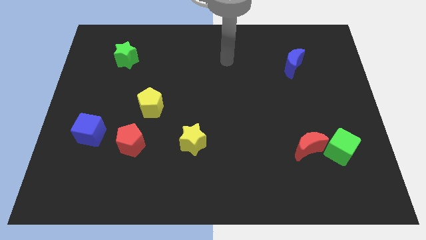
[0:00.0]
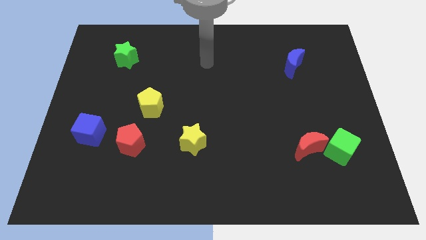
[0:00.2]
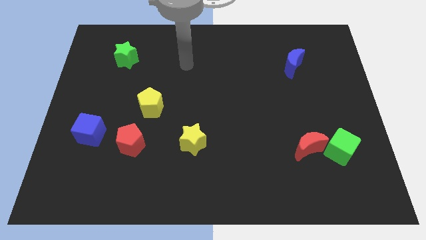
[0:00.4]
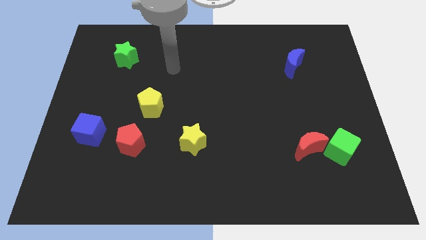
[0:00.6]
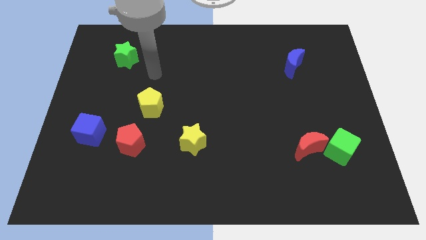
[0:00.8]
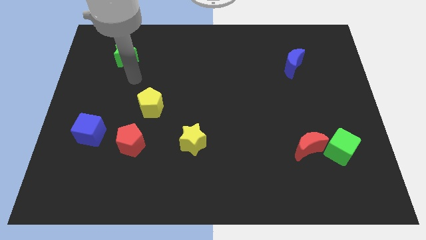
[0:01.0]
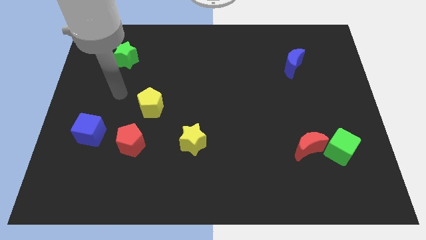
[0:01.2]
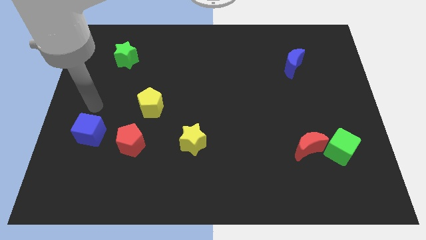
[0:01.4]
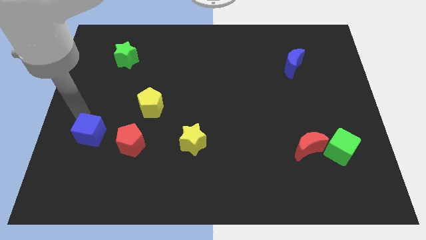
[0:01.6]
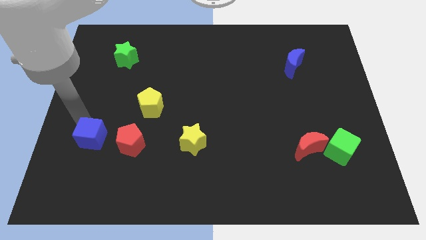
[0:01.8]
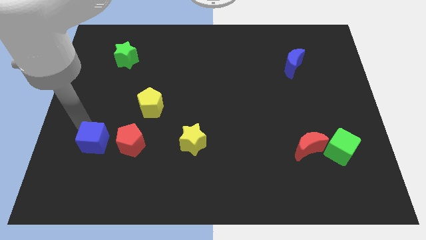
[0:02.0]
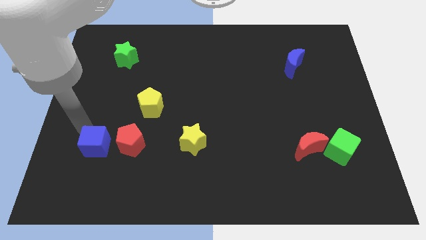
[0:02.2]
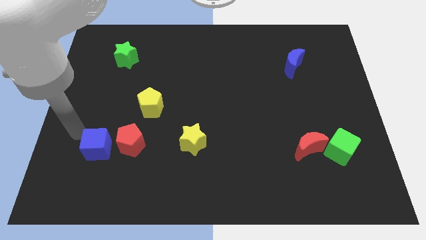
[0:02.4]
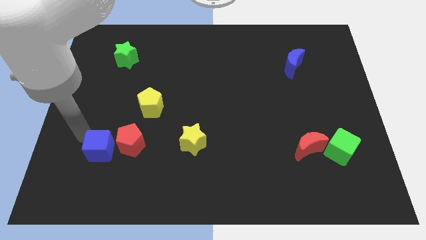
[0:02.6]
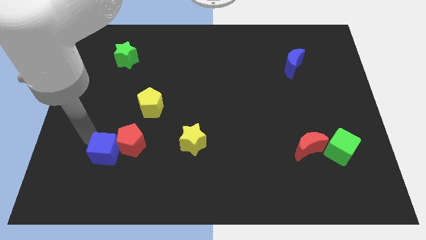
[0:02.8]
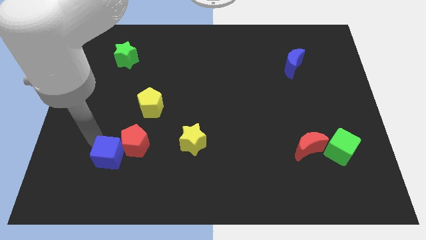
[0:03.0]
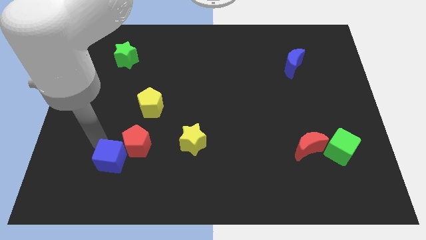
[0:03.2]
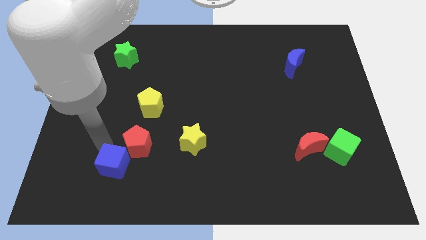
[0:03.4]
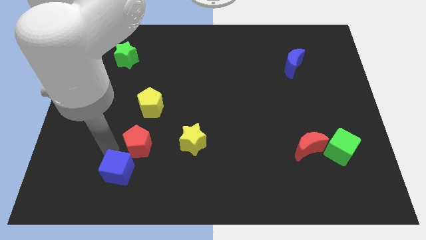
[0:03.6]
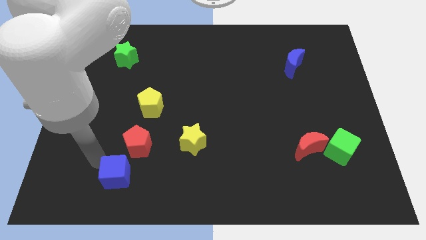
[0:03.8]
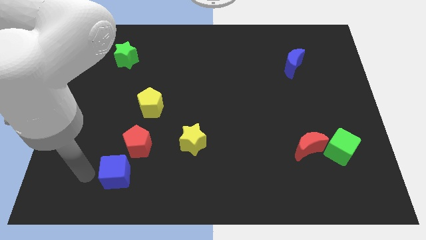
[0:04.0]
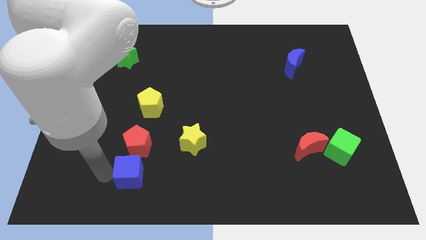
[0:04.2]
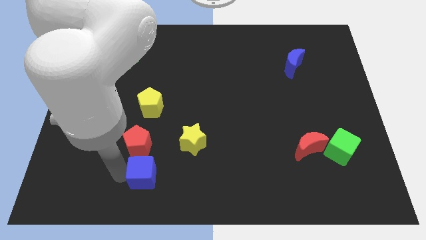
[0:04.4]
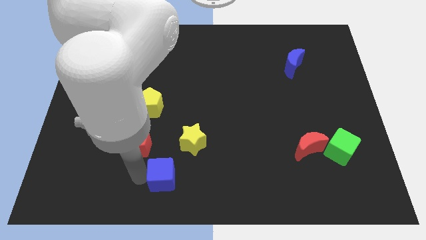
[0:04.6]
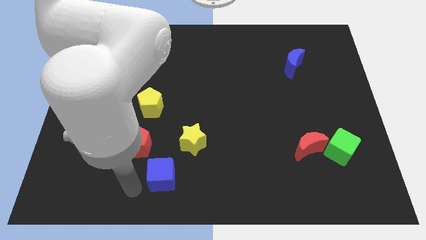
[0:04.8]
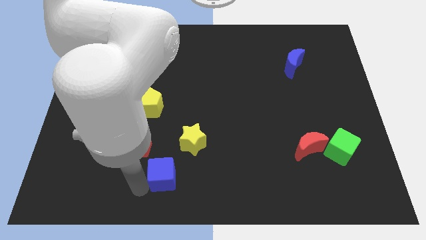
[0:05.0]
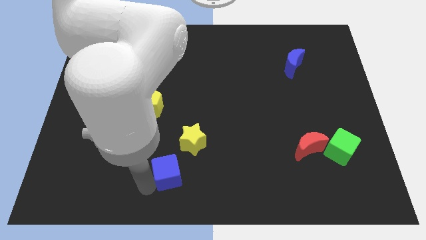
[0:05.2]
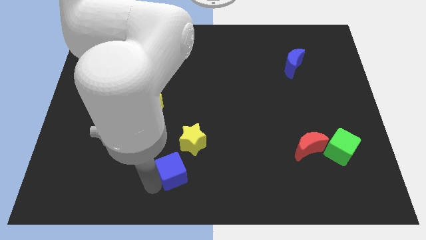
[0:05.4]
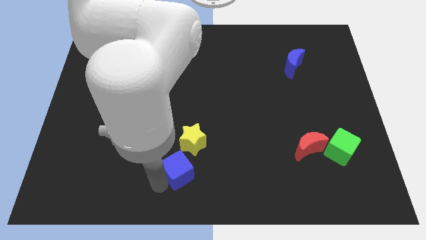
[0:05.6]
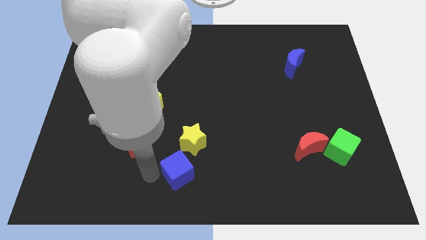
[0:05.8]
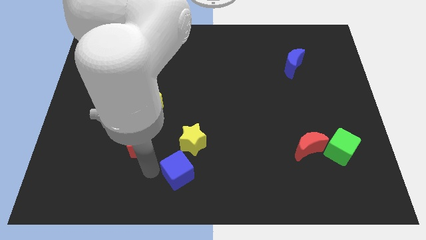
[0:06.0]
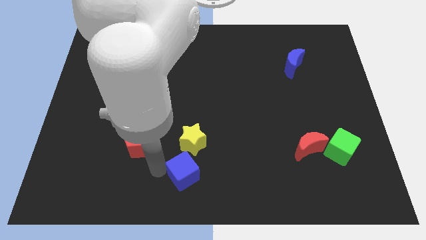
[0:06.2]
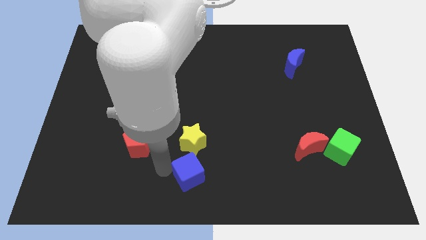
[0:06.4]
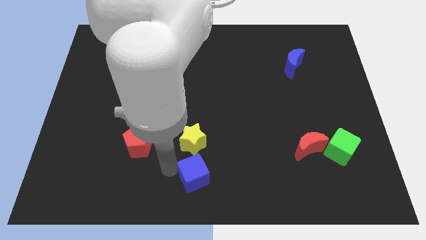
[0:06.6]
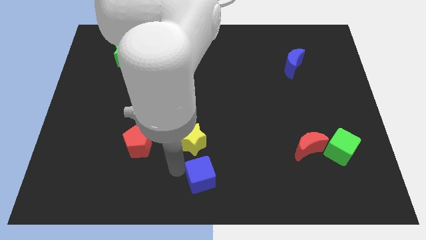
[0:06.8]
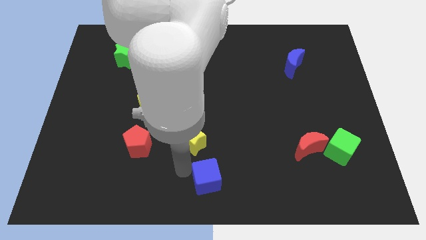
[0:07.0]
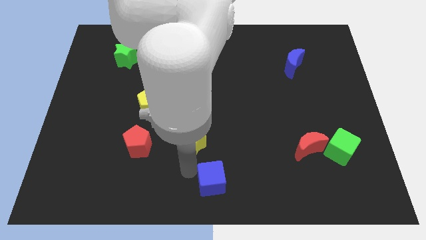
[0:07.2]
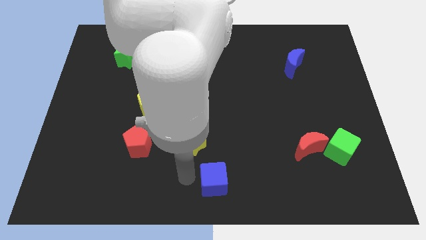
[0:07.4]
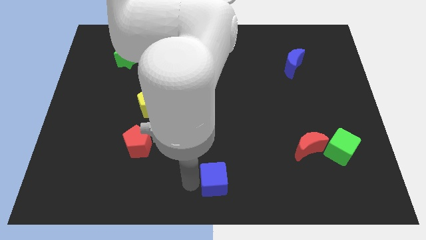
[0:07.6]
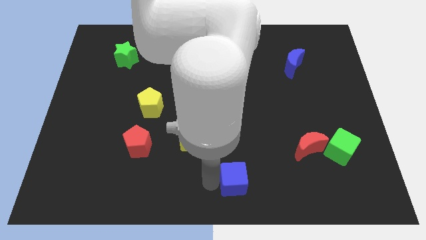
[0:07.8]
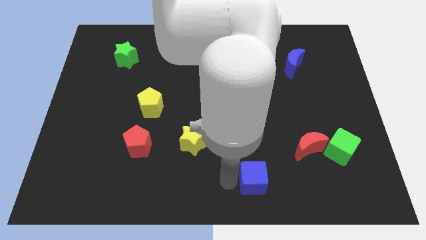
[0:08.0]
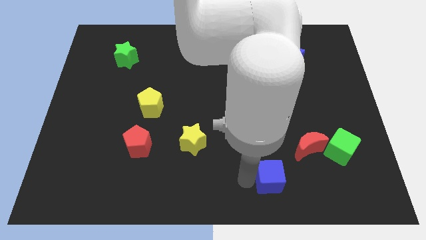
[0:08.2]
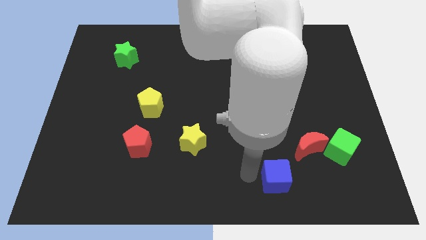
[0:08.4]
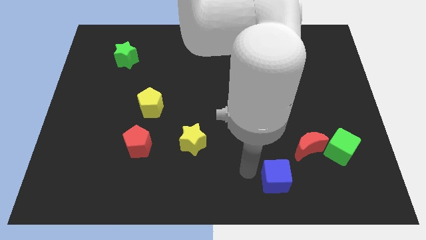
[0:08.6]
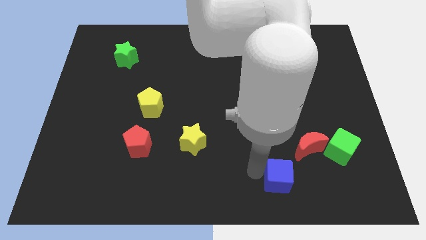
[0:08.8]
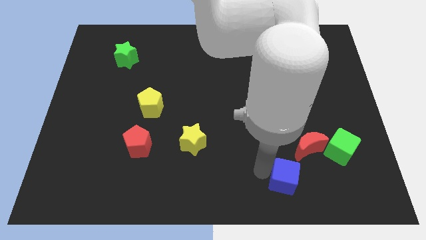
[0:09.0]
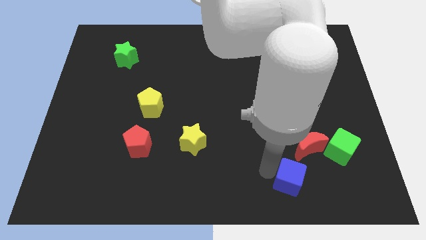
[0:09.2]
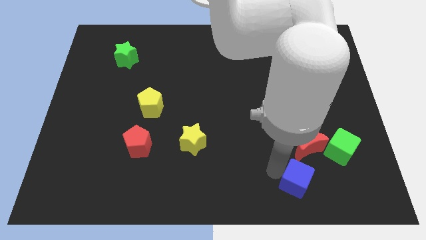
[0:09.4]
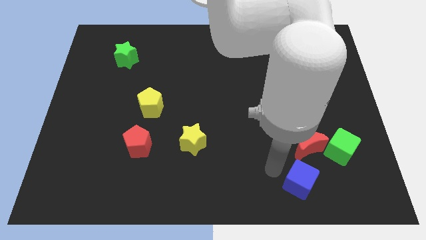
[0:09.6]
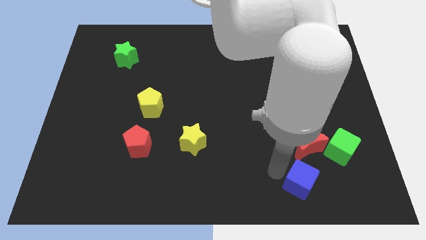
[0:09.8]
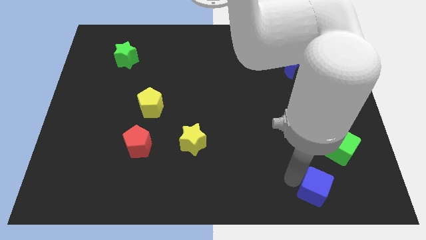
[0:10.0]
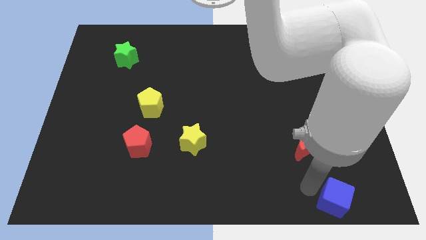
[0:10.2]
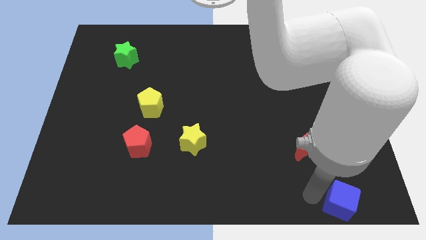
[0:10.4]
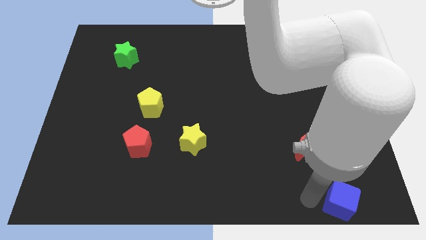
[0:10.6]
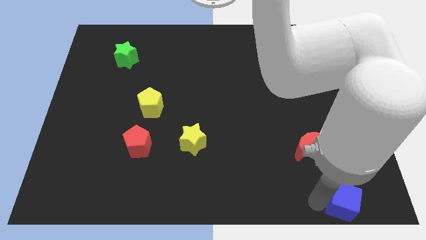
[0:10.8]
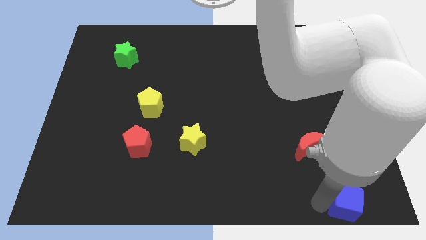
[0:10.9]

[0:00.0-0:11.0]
push the blue cube to the lower right corner
